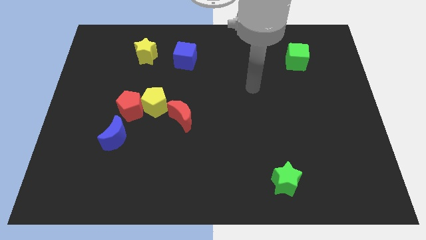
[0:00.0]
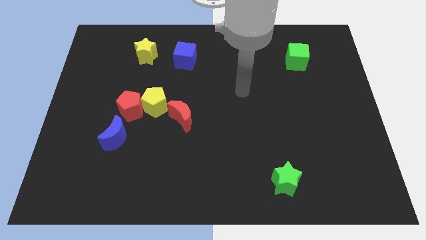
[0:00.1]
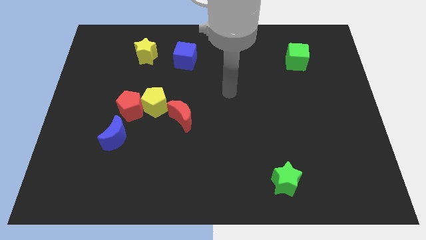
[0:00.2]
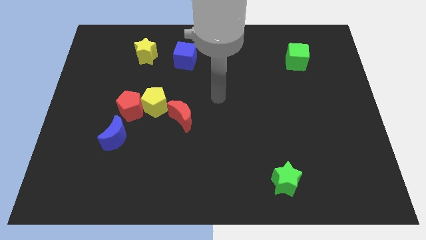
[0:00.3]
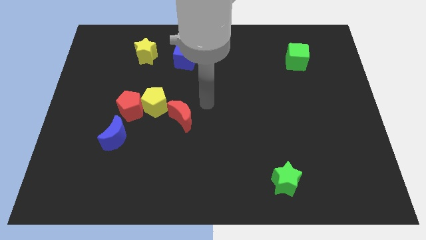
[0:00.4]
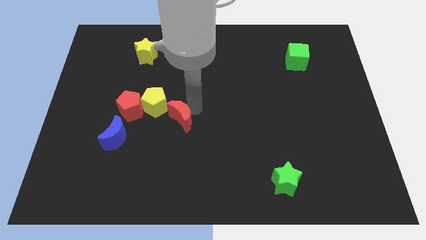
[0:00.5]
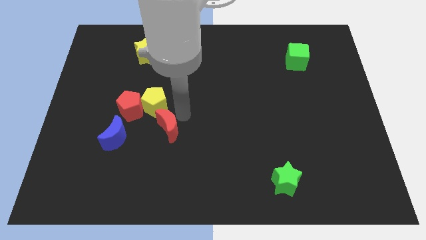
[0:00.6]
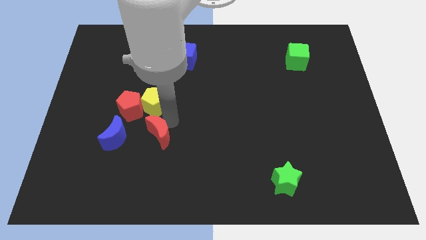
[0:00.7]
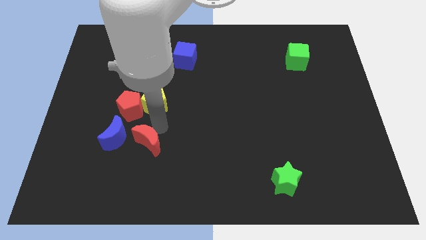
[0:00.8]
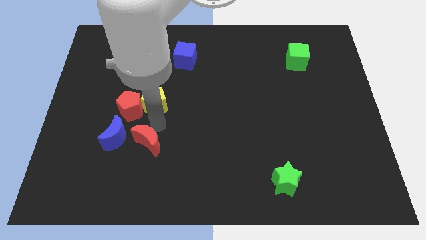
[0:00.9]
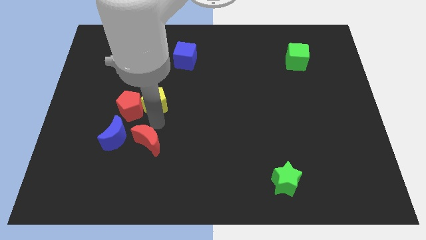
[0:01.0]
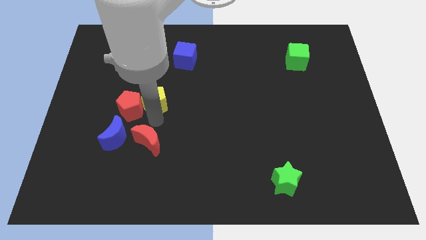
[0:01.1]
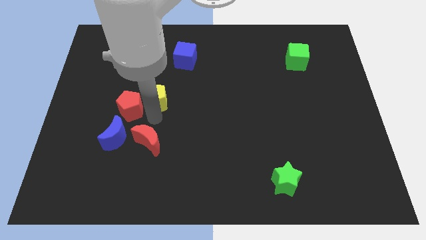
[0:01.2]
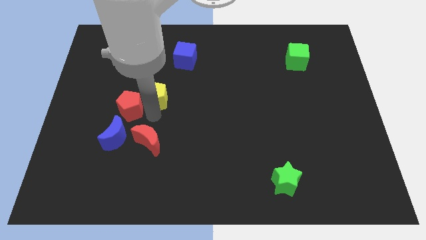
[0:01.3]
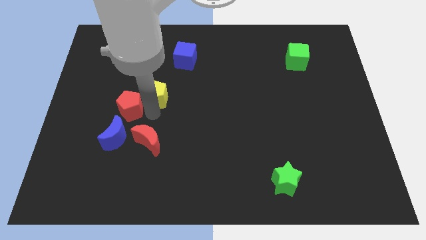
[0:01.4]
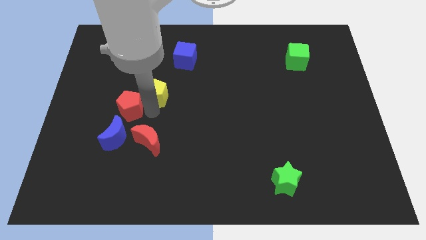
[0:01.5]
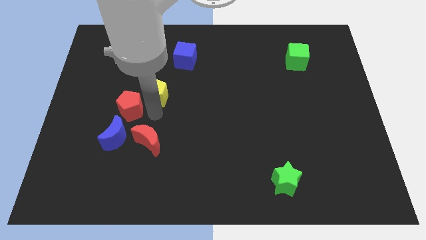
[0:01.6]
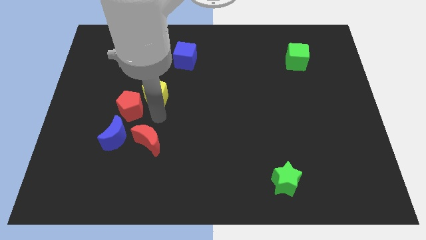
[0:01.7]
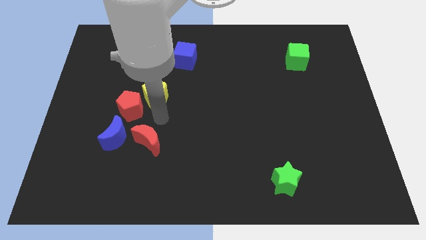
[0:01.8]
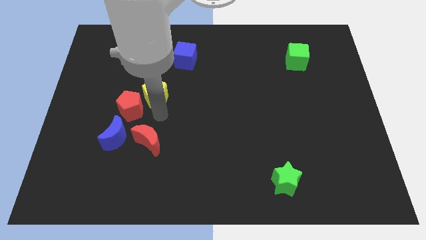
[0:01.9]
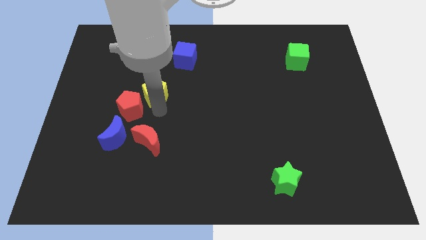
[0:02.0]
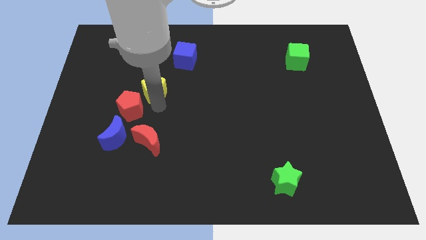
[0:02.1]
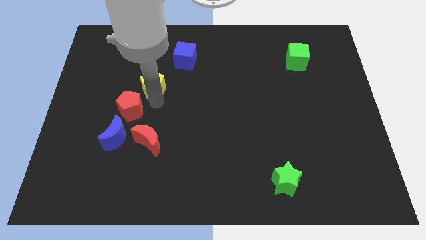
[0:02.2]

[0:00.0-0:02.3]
separate the yellow pentagon from the red pentagon and red moon

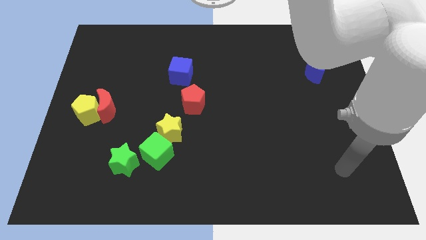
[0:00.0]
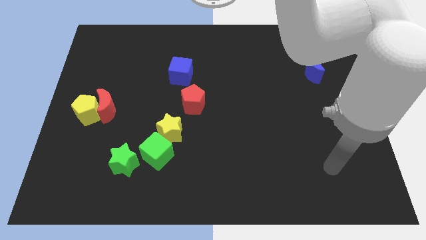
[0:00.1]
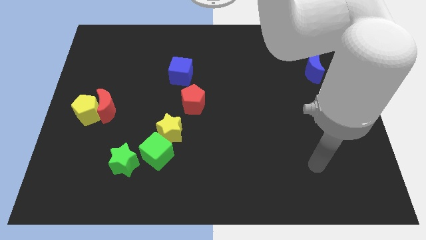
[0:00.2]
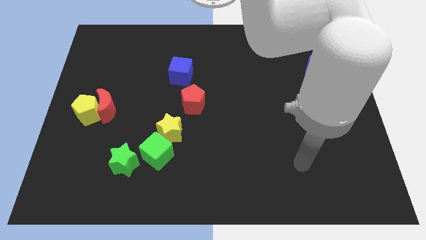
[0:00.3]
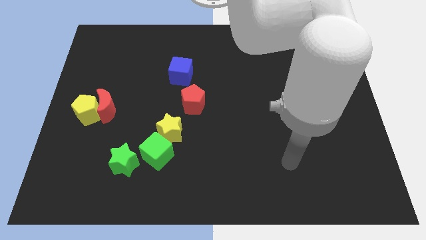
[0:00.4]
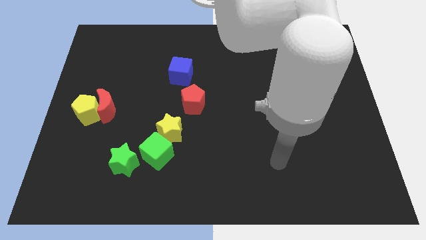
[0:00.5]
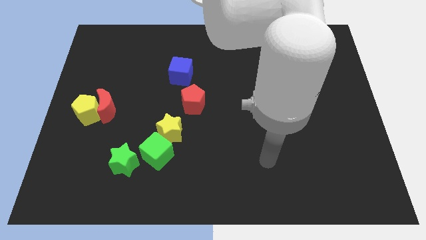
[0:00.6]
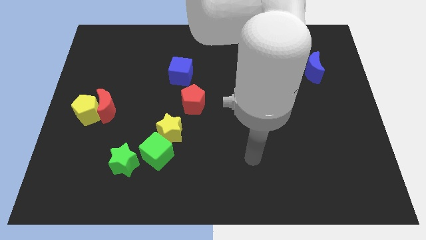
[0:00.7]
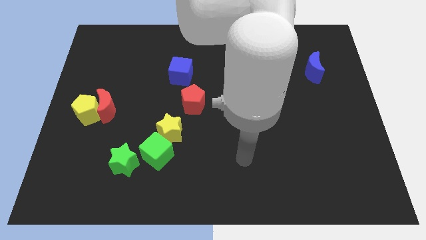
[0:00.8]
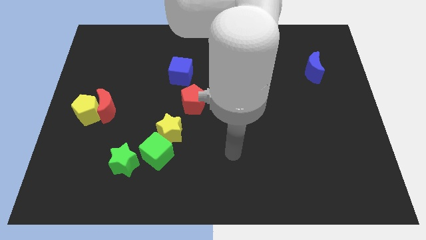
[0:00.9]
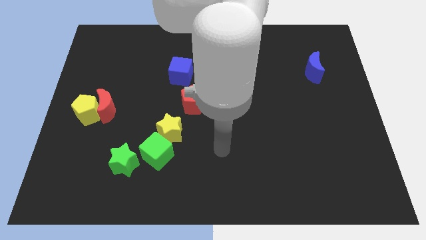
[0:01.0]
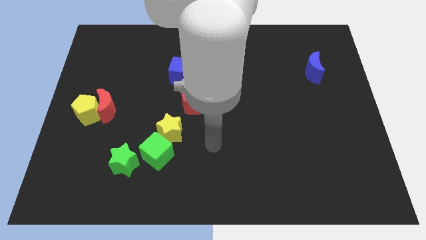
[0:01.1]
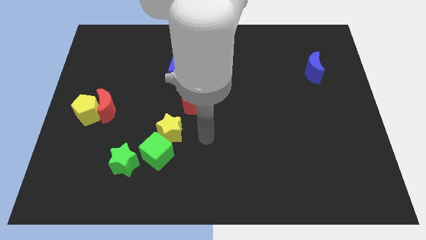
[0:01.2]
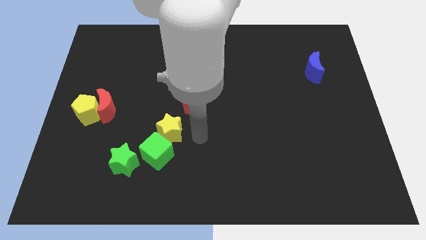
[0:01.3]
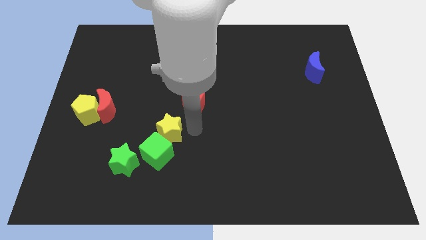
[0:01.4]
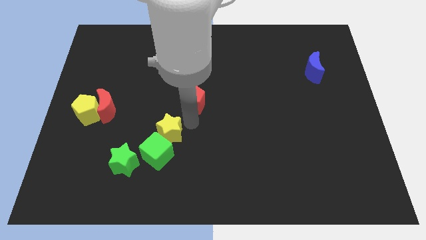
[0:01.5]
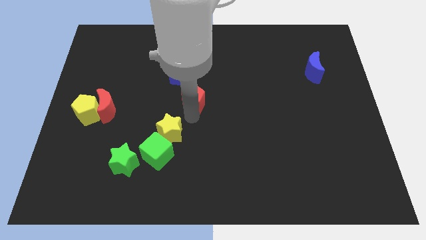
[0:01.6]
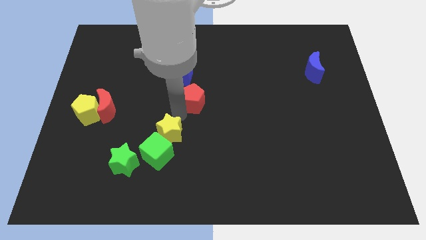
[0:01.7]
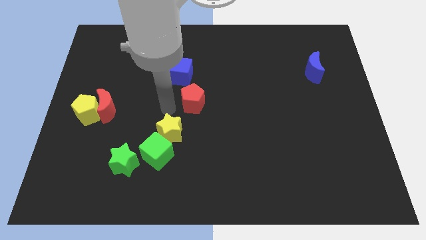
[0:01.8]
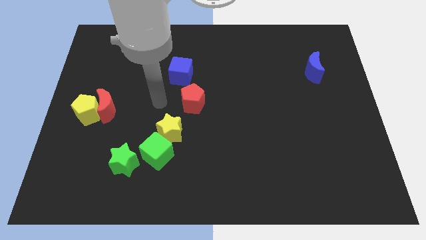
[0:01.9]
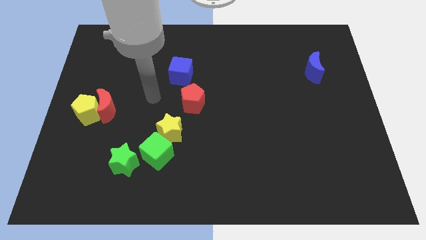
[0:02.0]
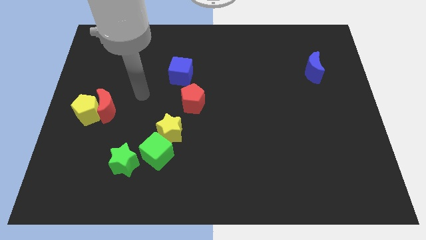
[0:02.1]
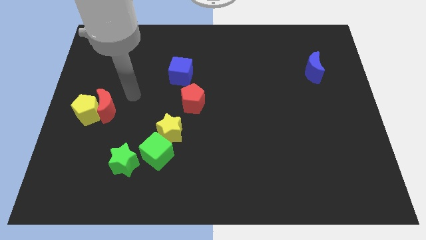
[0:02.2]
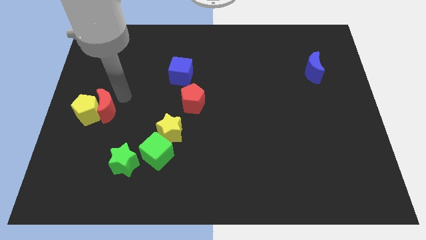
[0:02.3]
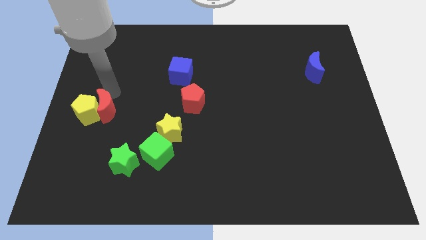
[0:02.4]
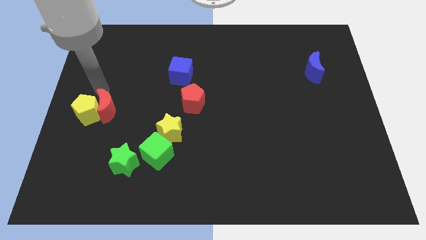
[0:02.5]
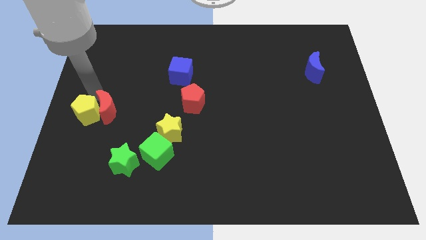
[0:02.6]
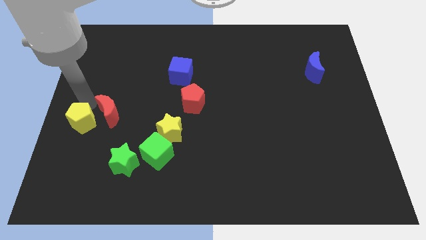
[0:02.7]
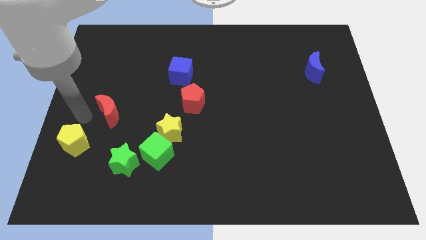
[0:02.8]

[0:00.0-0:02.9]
separate the red moon from the yellow pentagon

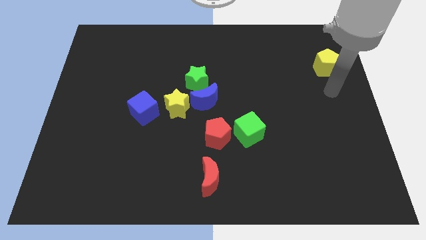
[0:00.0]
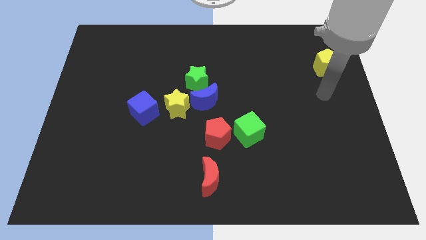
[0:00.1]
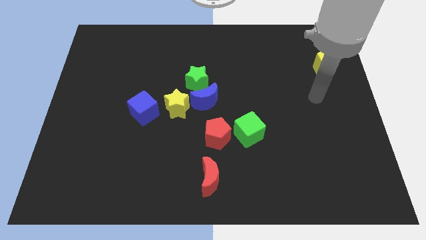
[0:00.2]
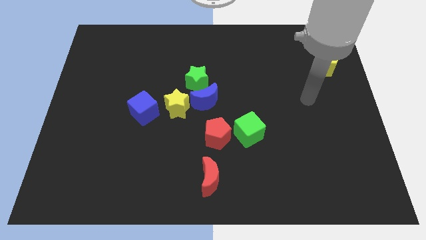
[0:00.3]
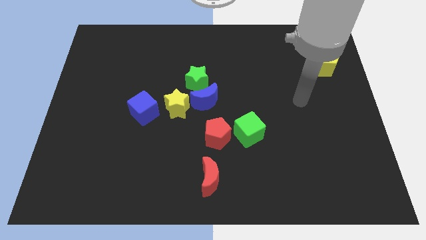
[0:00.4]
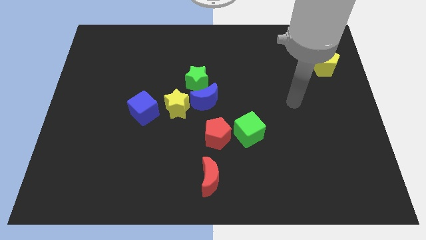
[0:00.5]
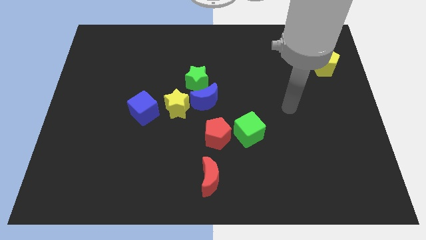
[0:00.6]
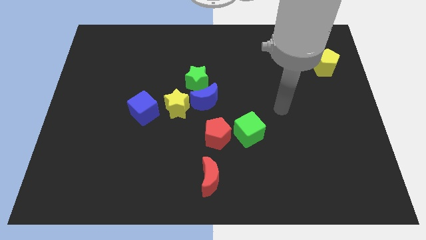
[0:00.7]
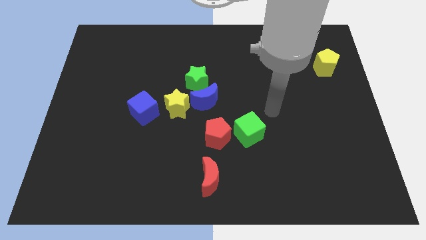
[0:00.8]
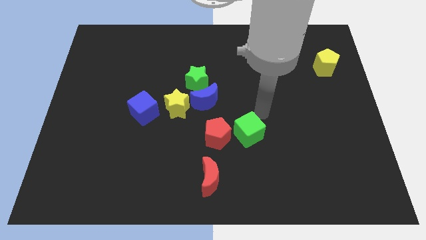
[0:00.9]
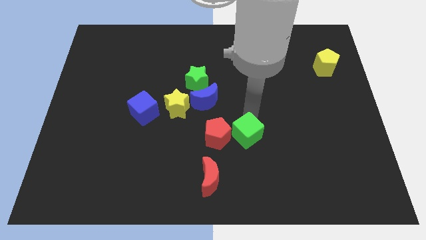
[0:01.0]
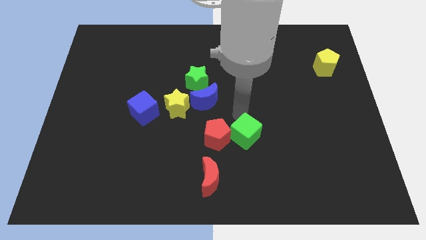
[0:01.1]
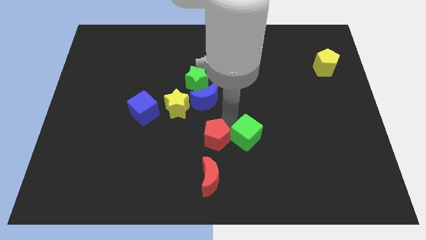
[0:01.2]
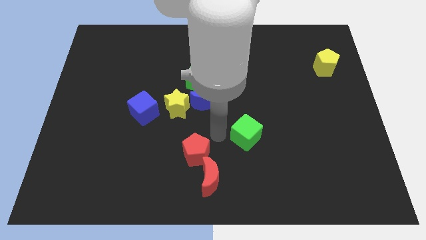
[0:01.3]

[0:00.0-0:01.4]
move the green cube away from the red pentagon

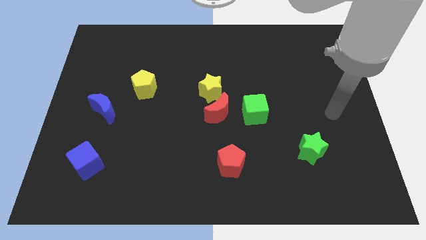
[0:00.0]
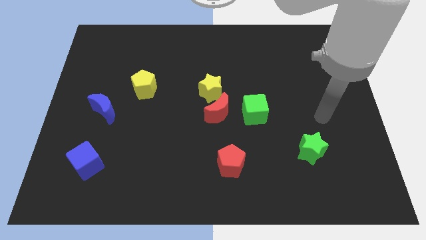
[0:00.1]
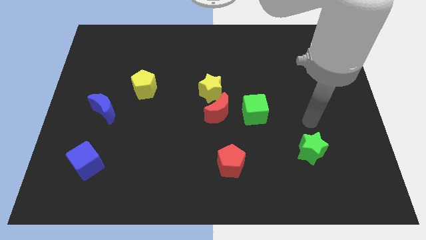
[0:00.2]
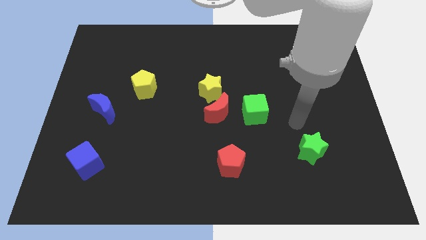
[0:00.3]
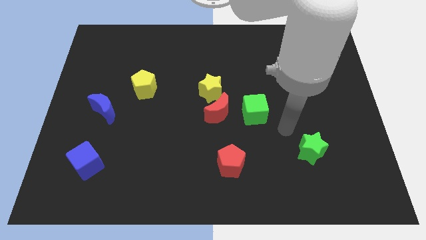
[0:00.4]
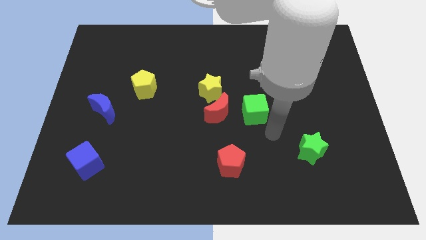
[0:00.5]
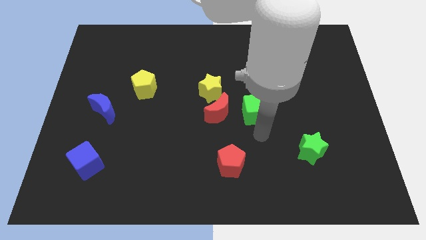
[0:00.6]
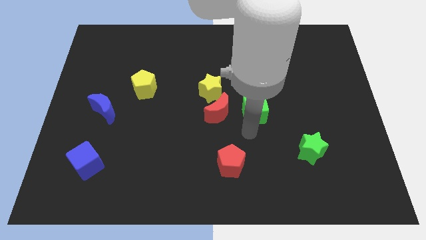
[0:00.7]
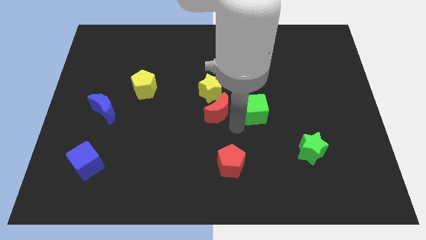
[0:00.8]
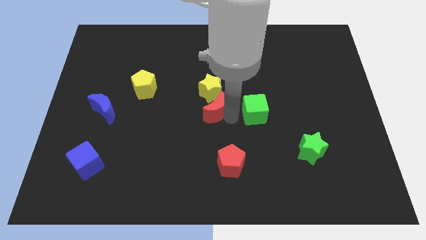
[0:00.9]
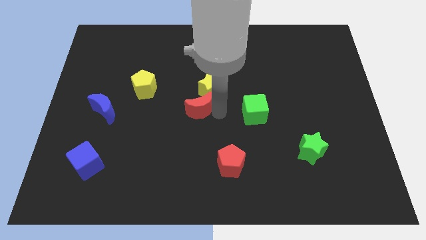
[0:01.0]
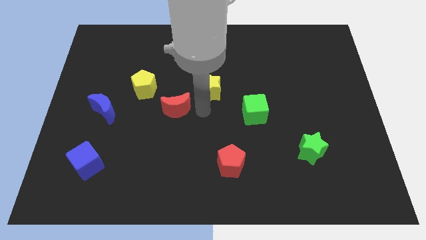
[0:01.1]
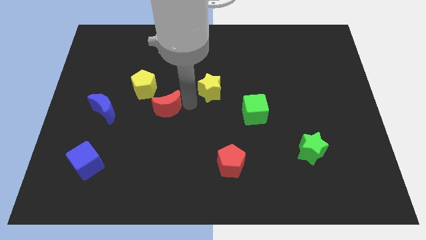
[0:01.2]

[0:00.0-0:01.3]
separate the yellow star from the red moon

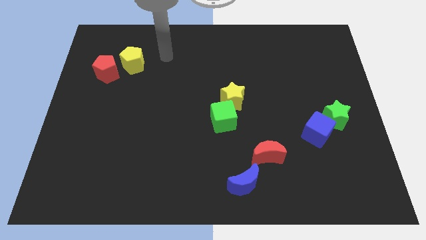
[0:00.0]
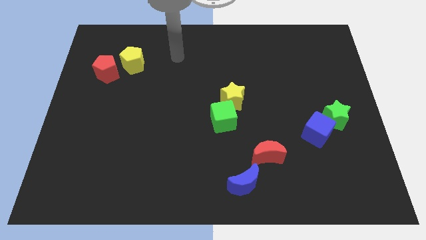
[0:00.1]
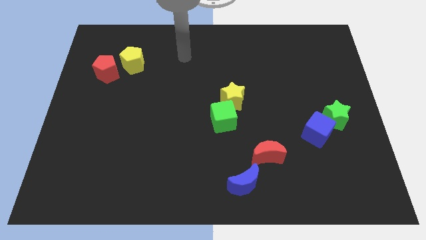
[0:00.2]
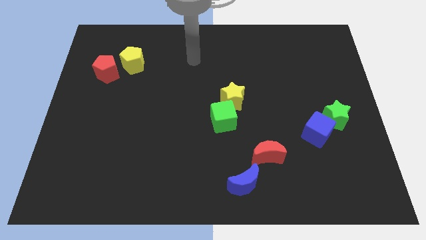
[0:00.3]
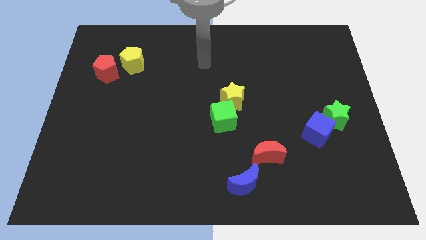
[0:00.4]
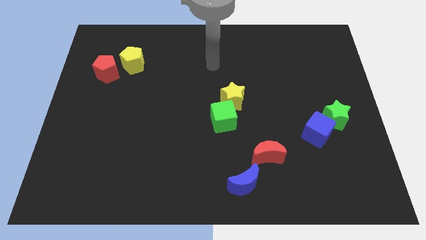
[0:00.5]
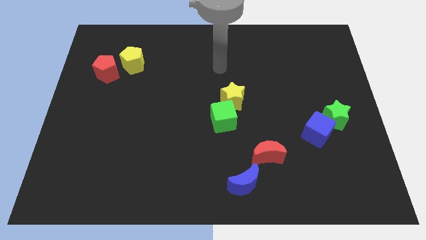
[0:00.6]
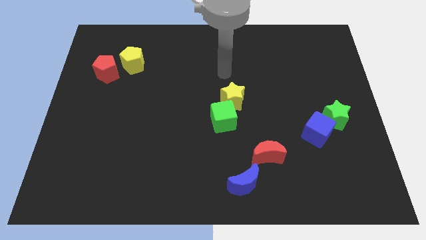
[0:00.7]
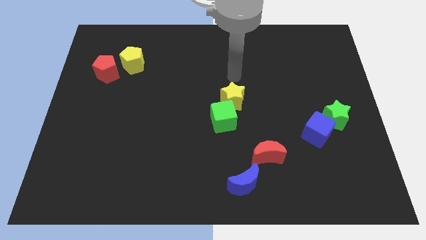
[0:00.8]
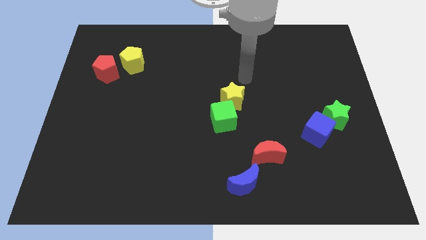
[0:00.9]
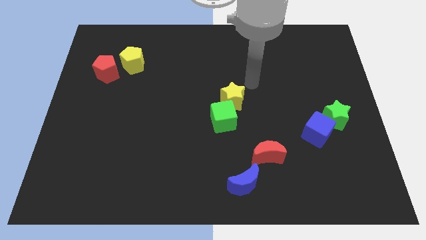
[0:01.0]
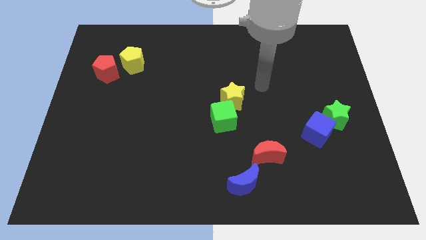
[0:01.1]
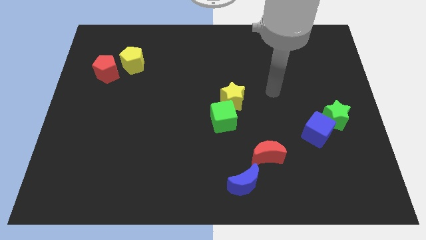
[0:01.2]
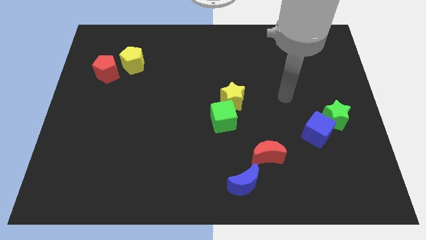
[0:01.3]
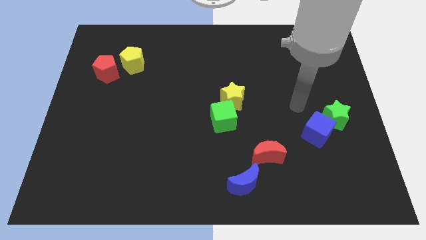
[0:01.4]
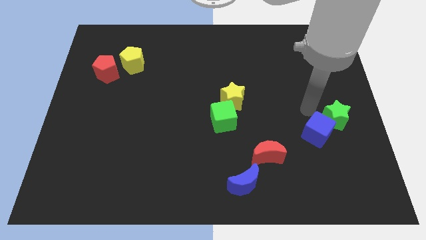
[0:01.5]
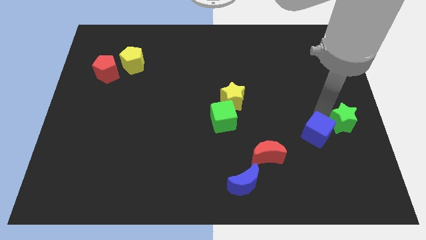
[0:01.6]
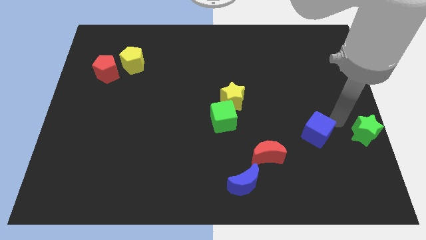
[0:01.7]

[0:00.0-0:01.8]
move the blue cube away from the green star
